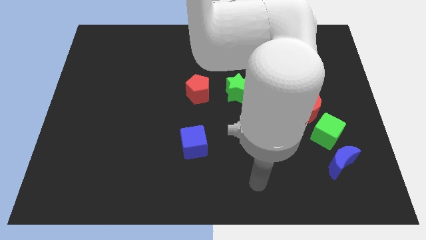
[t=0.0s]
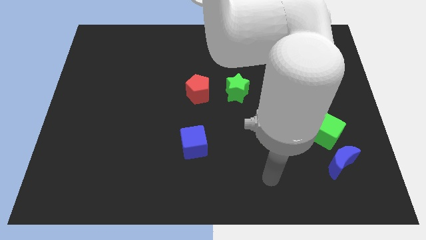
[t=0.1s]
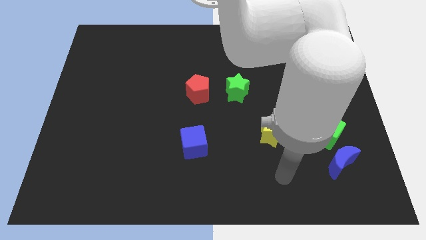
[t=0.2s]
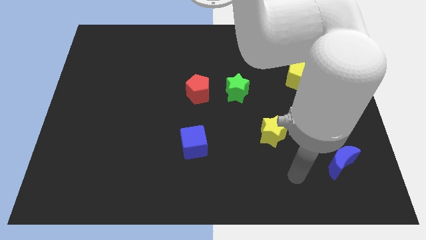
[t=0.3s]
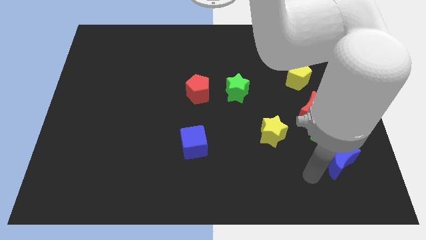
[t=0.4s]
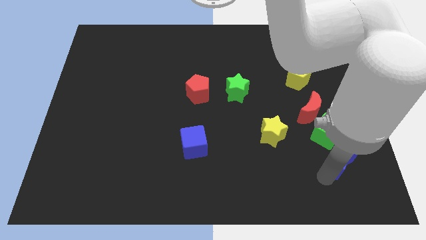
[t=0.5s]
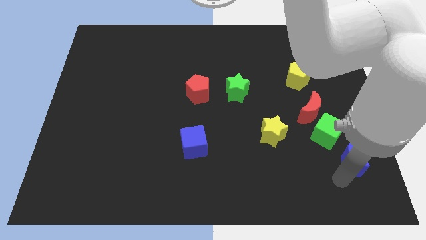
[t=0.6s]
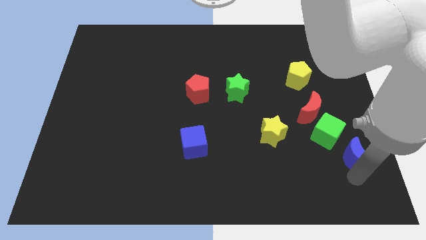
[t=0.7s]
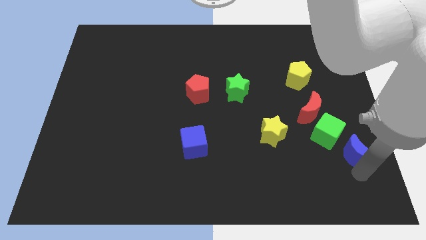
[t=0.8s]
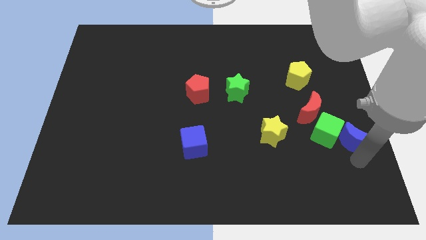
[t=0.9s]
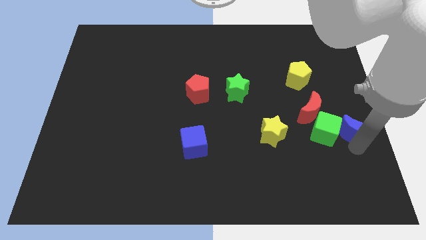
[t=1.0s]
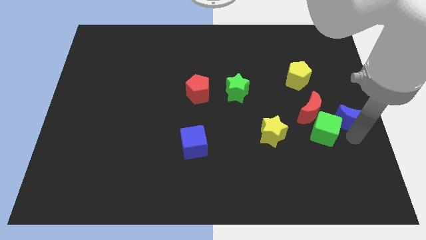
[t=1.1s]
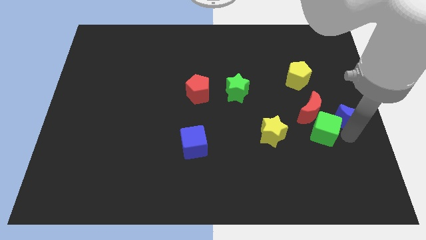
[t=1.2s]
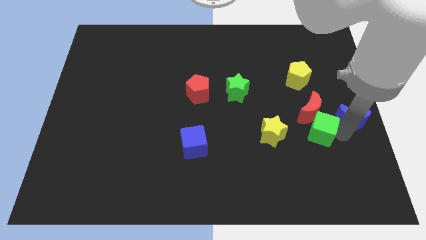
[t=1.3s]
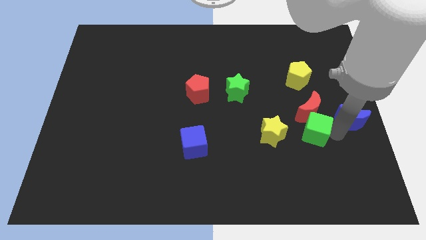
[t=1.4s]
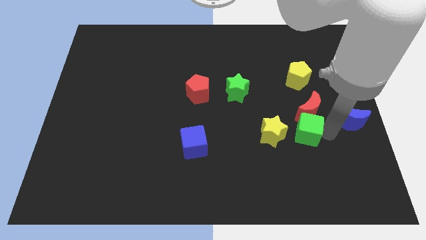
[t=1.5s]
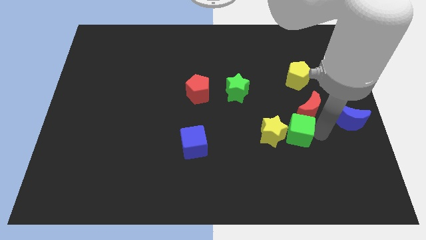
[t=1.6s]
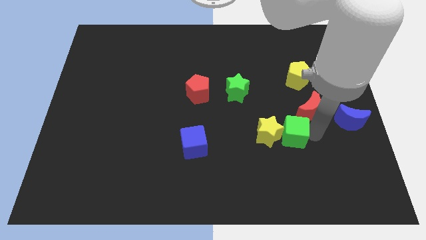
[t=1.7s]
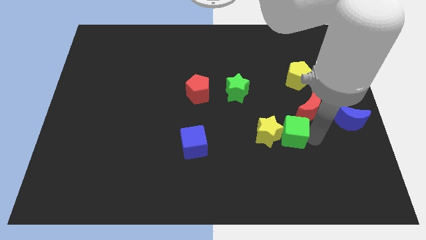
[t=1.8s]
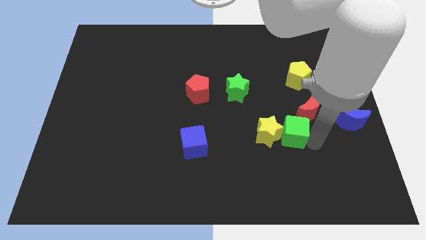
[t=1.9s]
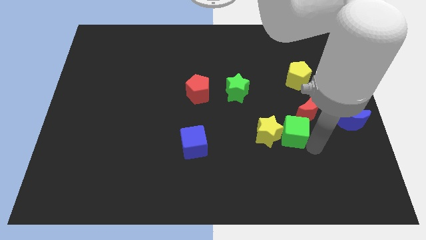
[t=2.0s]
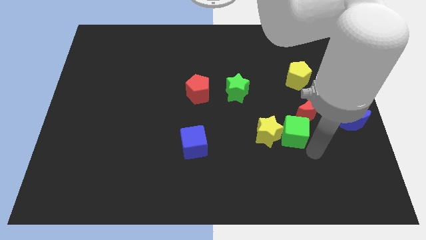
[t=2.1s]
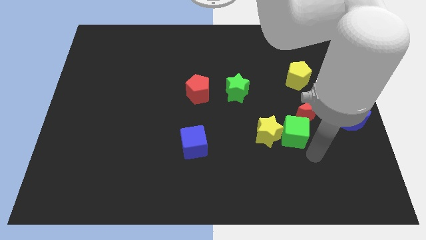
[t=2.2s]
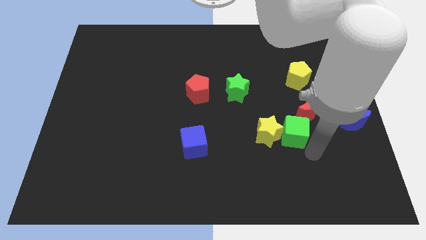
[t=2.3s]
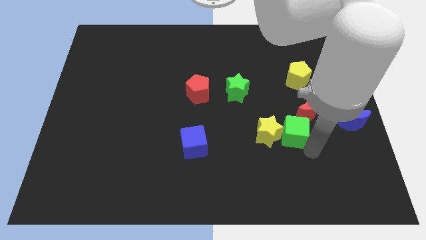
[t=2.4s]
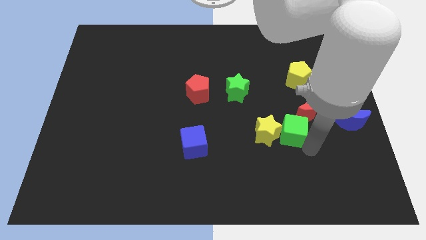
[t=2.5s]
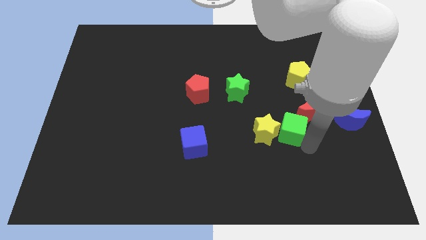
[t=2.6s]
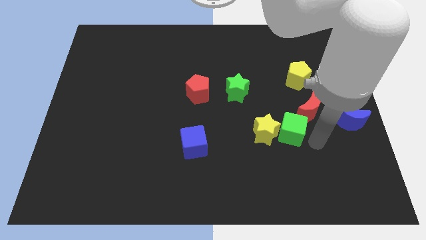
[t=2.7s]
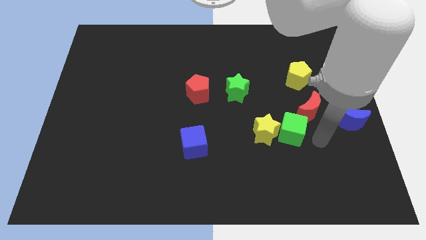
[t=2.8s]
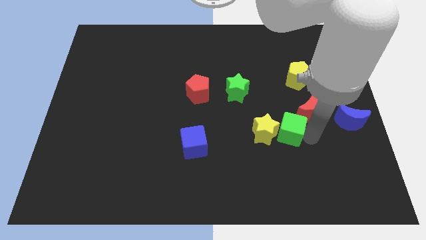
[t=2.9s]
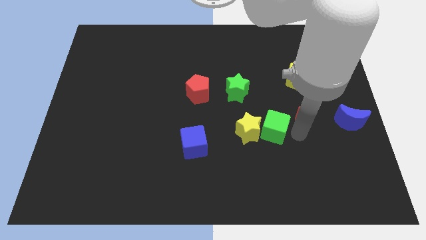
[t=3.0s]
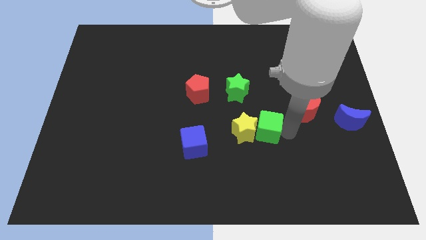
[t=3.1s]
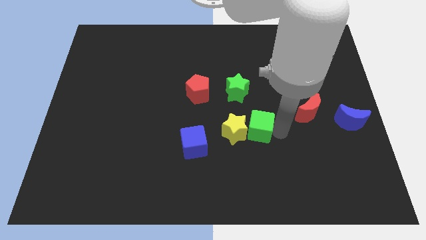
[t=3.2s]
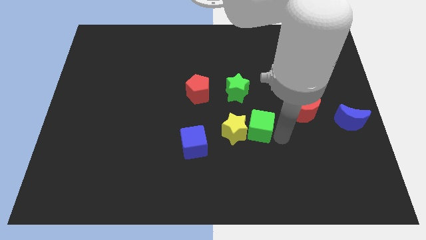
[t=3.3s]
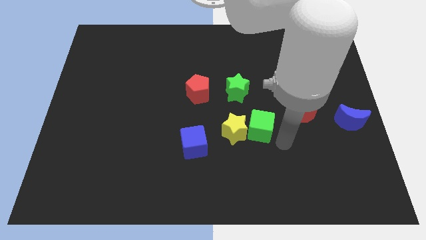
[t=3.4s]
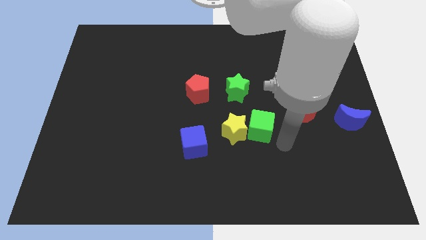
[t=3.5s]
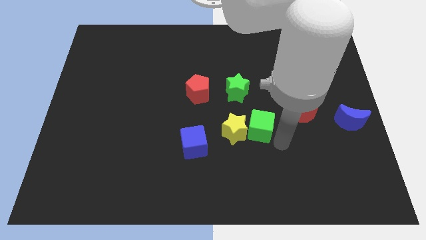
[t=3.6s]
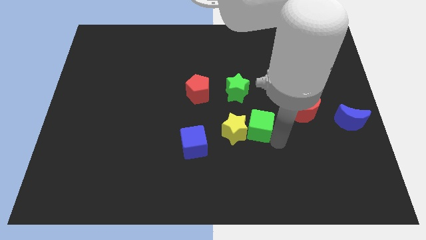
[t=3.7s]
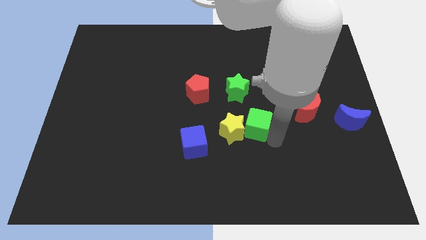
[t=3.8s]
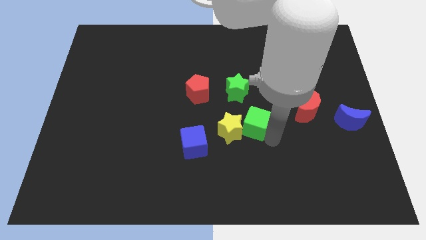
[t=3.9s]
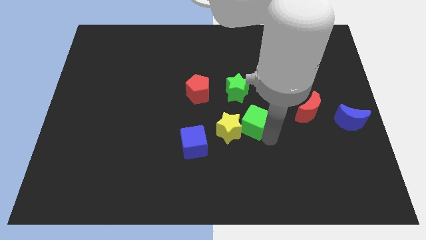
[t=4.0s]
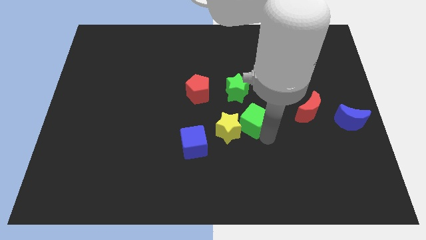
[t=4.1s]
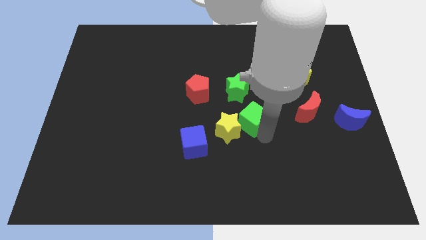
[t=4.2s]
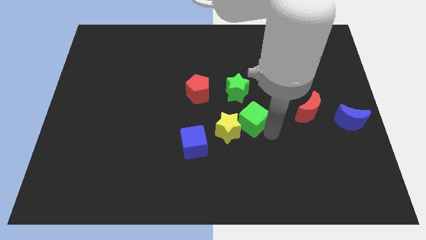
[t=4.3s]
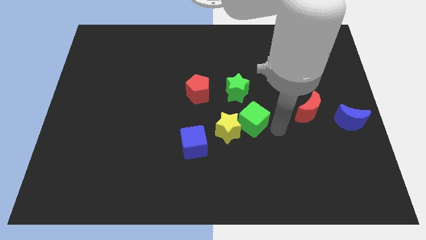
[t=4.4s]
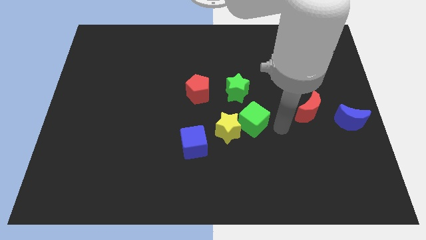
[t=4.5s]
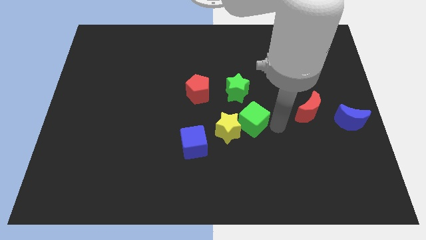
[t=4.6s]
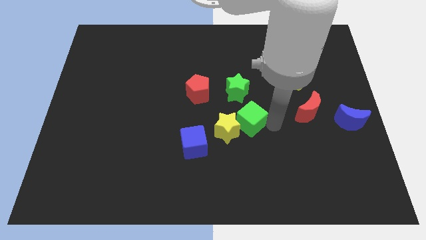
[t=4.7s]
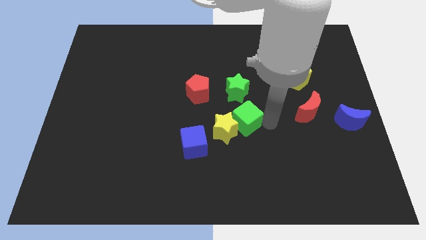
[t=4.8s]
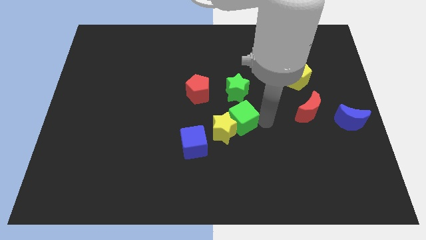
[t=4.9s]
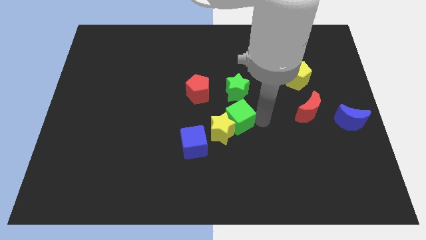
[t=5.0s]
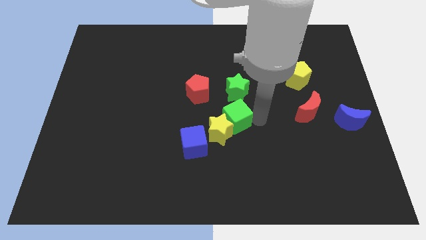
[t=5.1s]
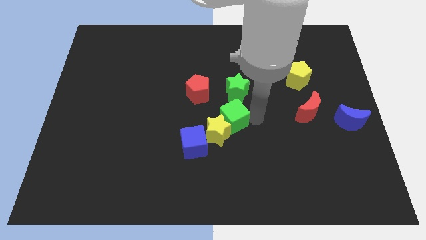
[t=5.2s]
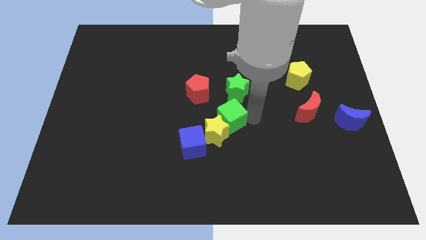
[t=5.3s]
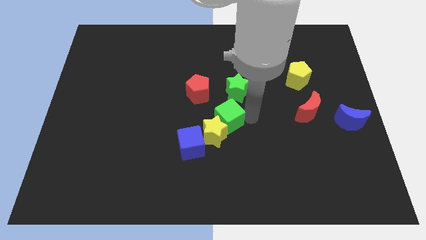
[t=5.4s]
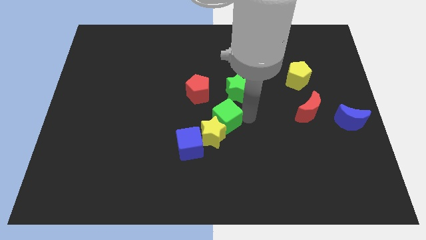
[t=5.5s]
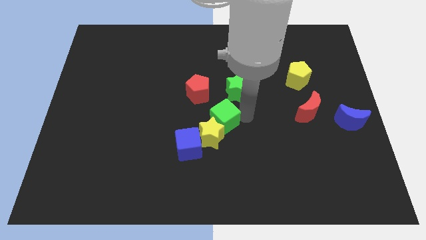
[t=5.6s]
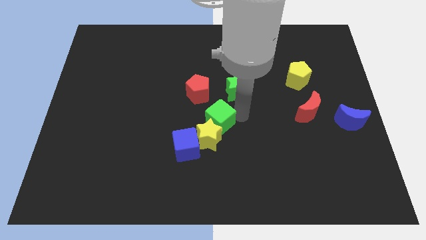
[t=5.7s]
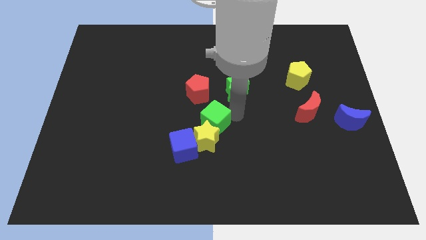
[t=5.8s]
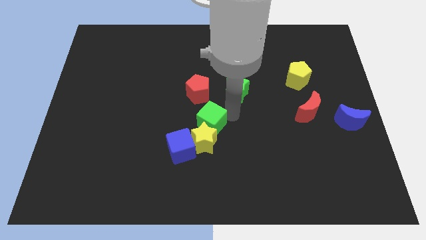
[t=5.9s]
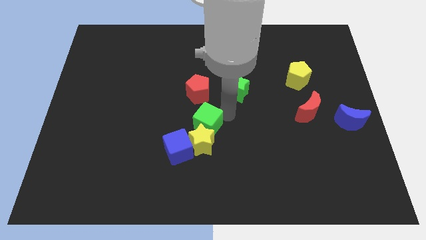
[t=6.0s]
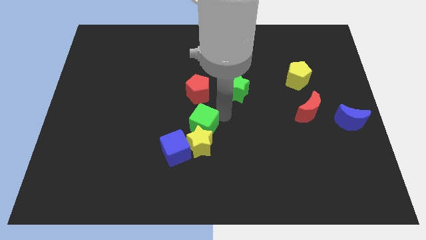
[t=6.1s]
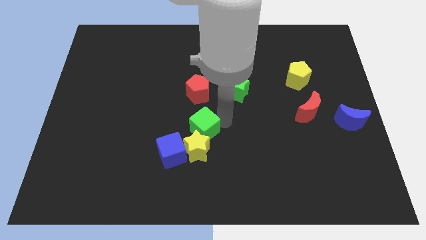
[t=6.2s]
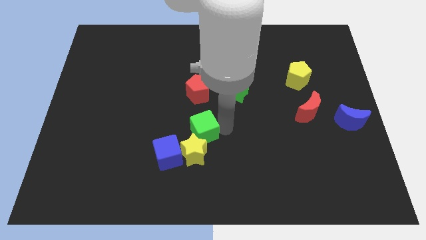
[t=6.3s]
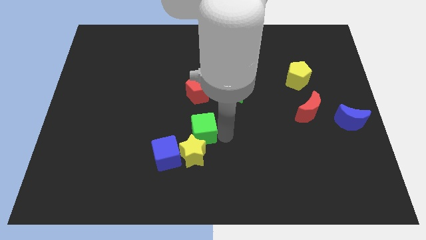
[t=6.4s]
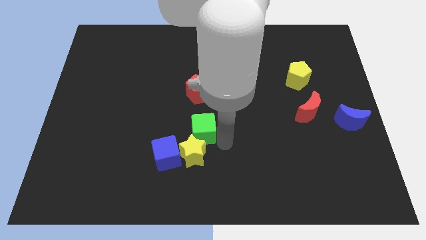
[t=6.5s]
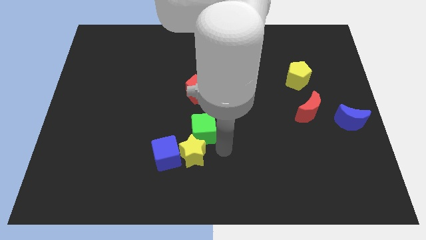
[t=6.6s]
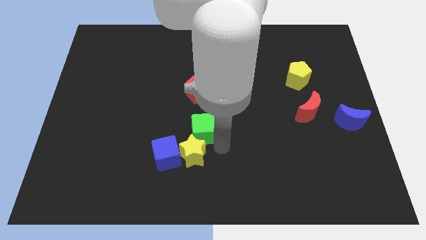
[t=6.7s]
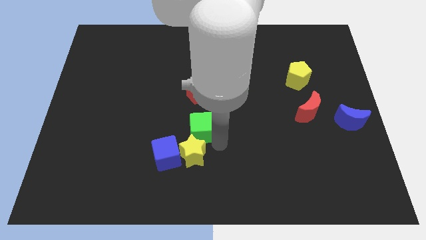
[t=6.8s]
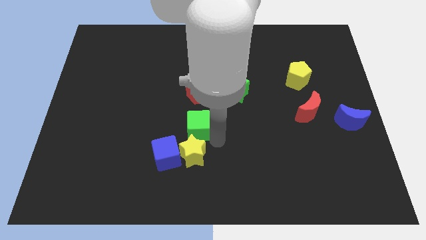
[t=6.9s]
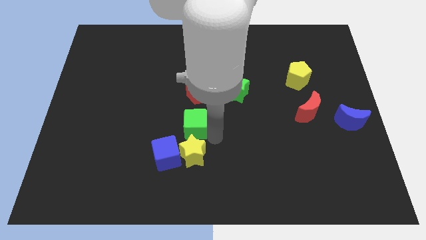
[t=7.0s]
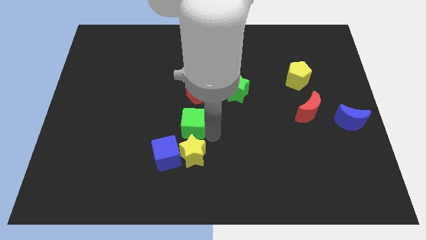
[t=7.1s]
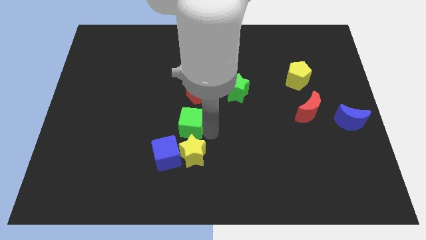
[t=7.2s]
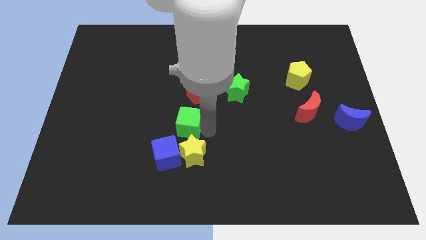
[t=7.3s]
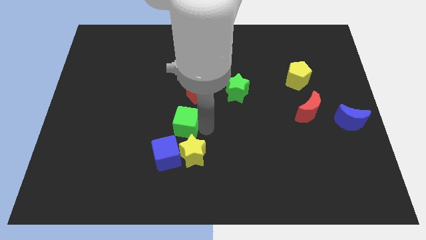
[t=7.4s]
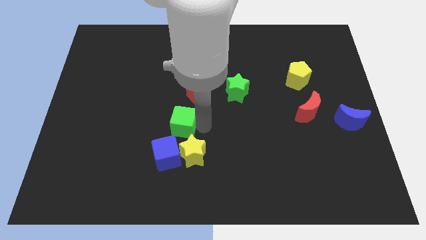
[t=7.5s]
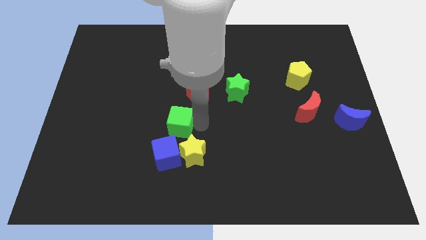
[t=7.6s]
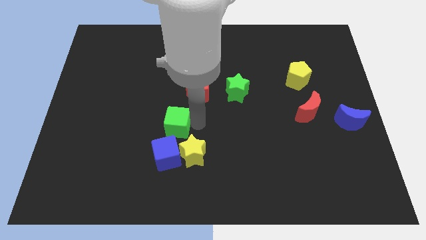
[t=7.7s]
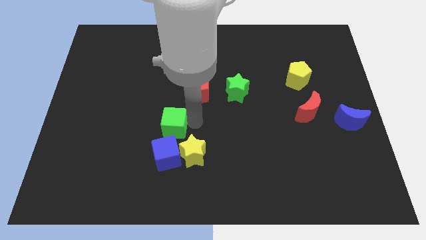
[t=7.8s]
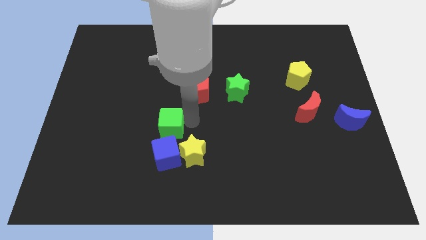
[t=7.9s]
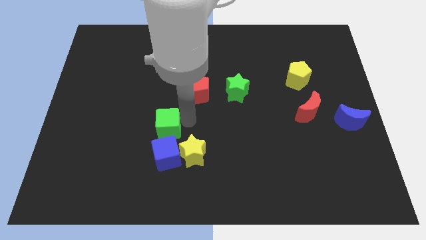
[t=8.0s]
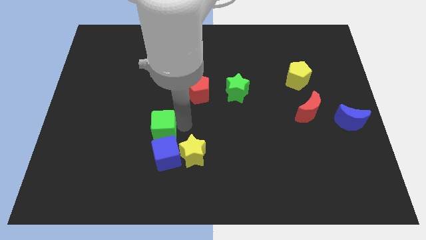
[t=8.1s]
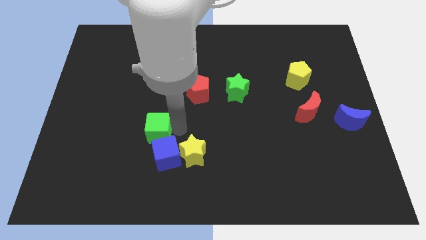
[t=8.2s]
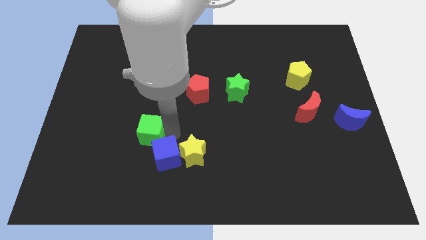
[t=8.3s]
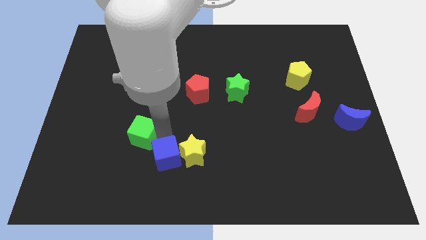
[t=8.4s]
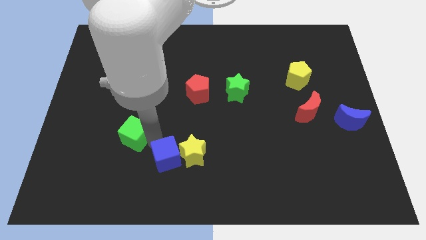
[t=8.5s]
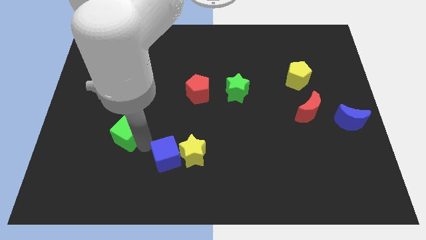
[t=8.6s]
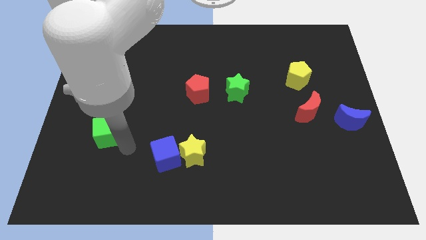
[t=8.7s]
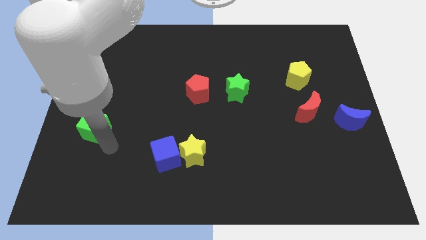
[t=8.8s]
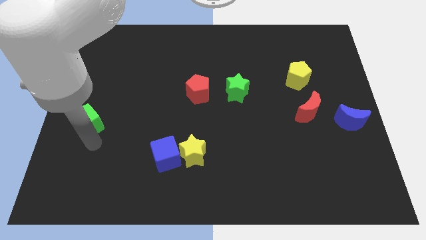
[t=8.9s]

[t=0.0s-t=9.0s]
move the green cube to the center left
